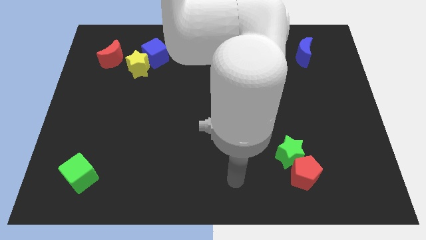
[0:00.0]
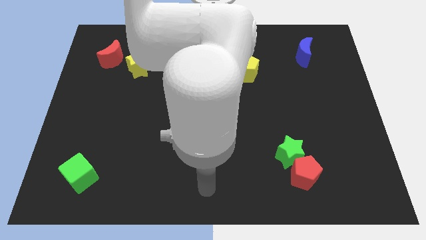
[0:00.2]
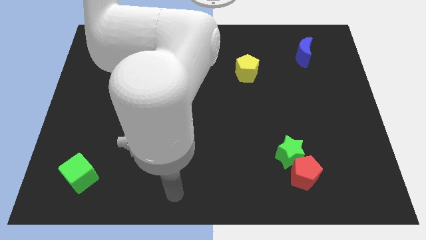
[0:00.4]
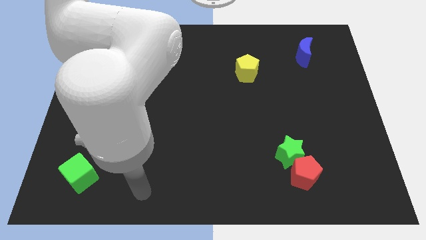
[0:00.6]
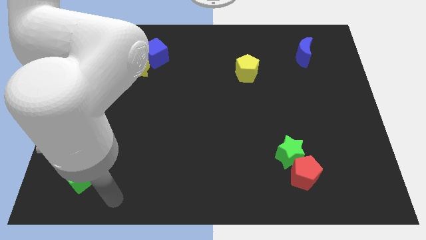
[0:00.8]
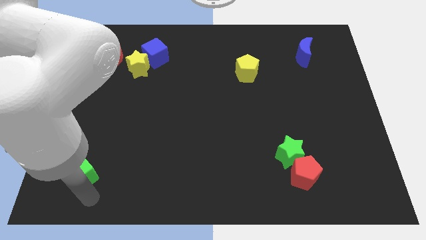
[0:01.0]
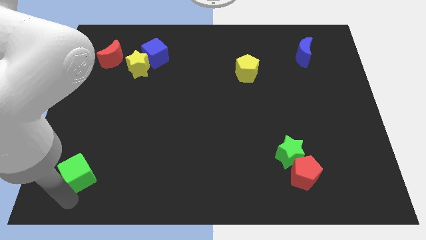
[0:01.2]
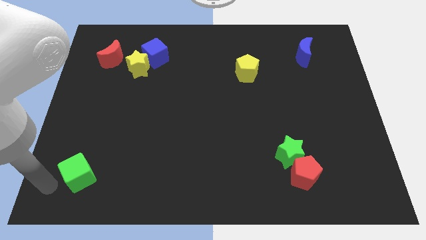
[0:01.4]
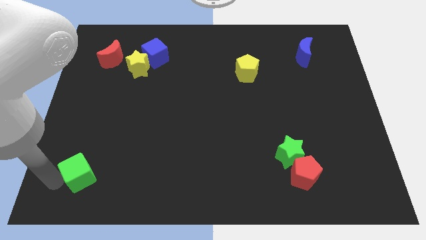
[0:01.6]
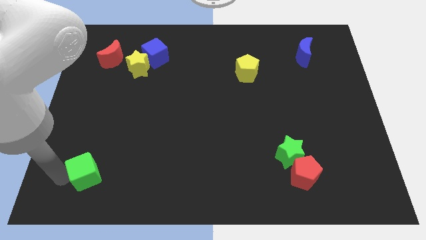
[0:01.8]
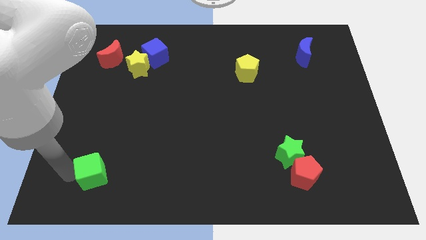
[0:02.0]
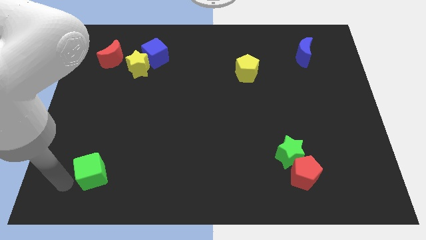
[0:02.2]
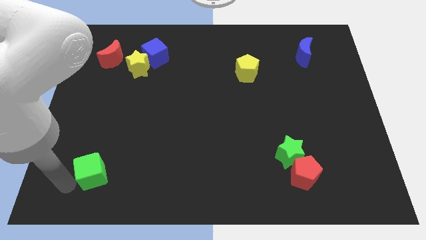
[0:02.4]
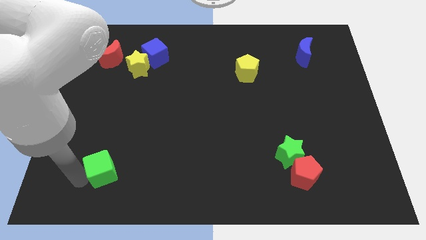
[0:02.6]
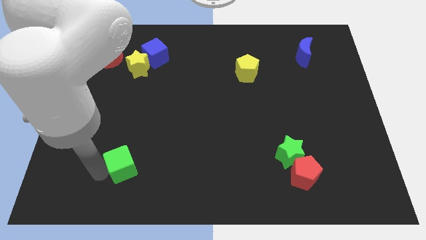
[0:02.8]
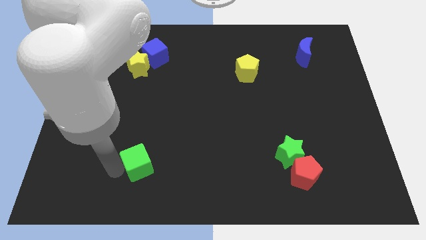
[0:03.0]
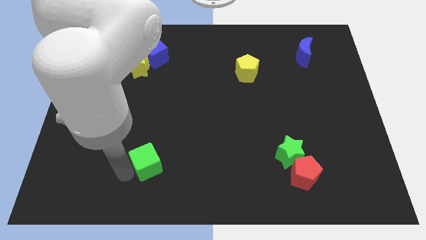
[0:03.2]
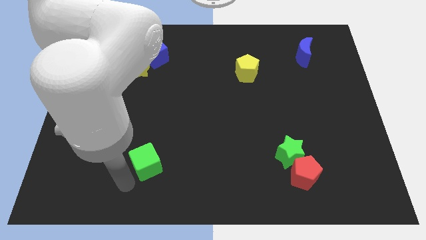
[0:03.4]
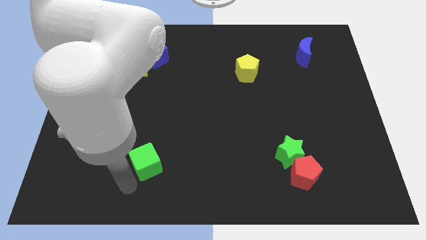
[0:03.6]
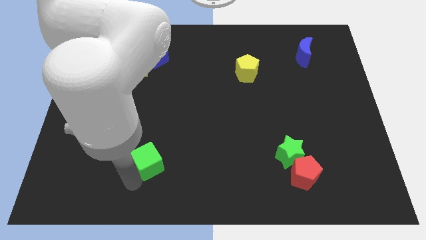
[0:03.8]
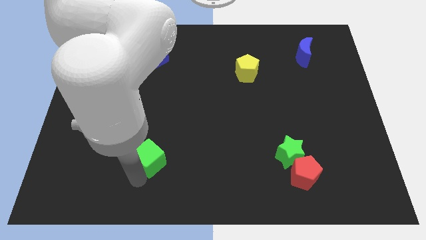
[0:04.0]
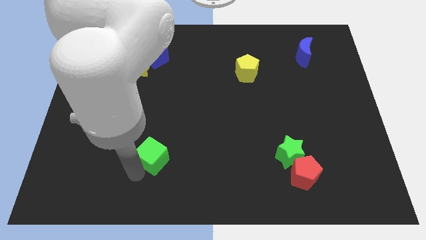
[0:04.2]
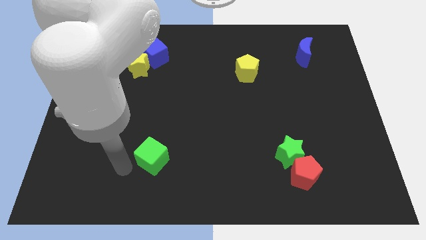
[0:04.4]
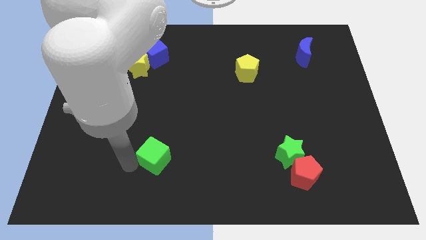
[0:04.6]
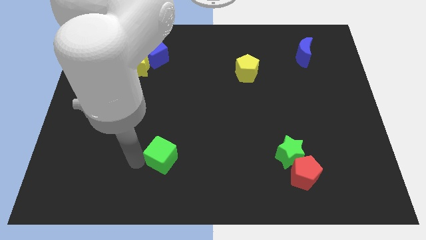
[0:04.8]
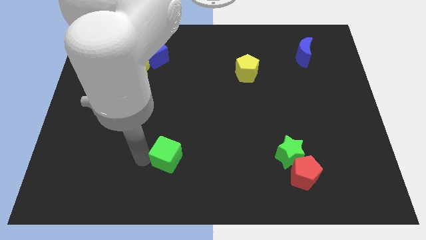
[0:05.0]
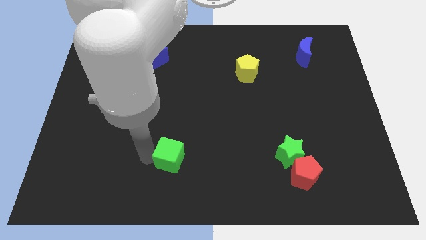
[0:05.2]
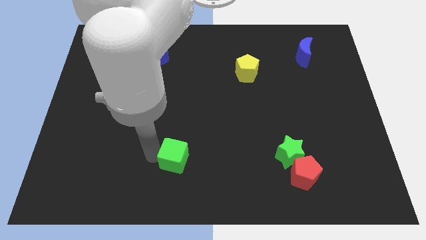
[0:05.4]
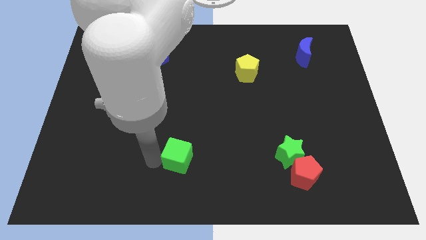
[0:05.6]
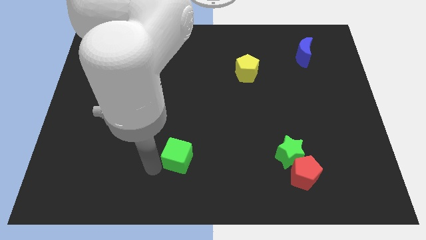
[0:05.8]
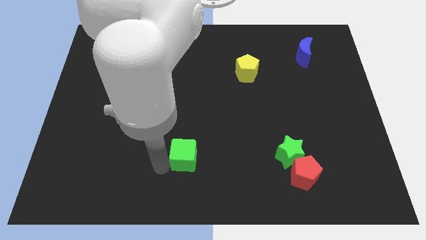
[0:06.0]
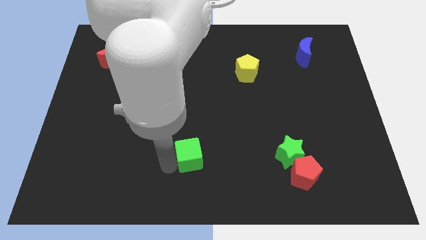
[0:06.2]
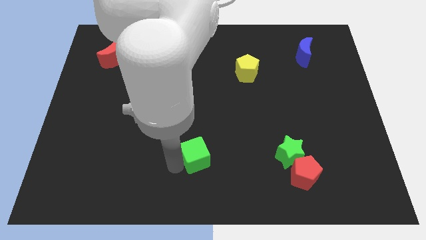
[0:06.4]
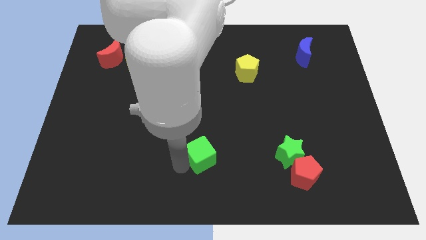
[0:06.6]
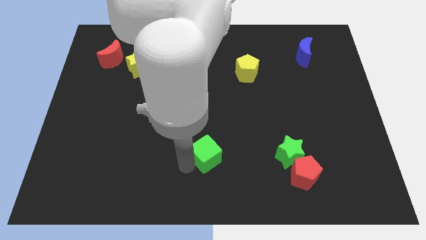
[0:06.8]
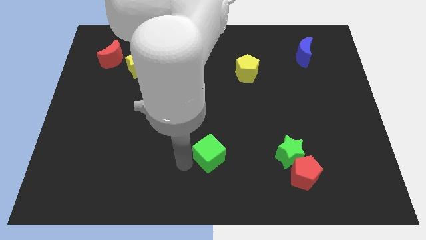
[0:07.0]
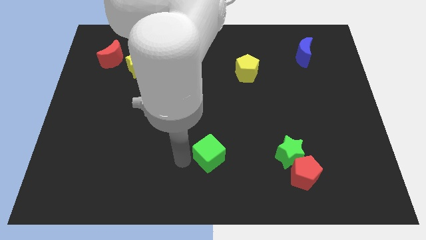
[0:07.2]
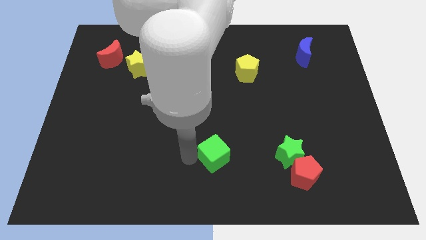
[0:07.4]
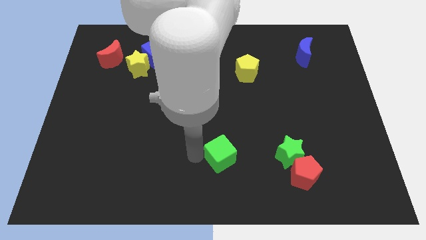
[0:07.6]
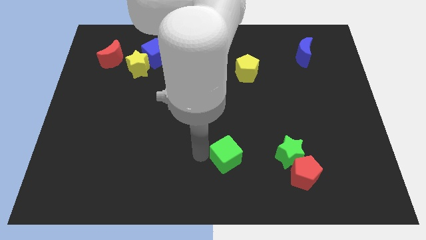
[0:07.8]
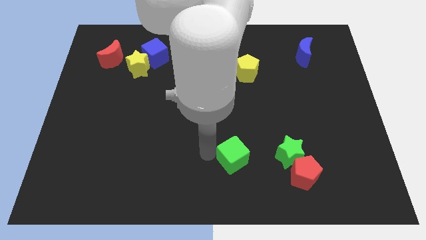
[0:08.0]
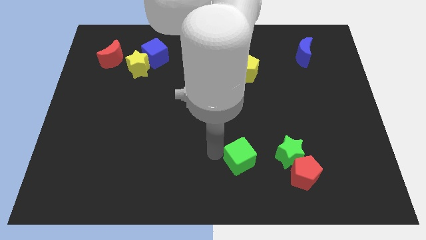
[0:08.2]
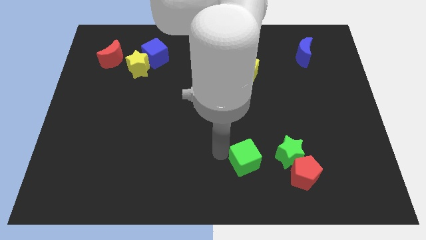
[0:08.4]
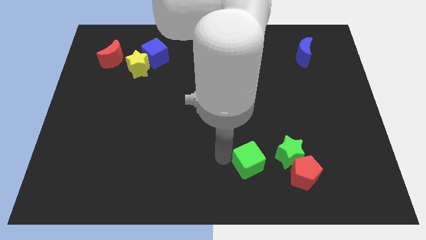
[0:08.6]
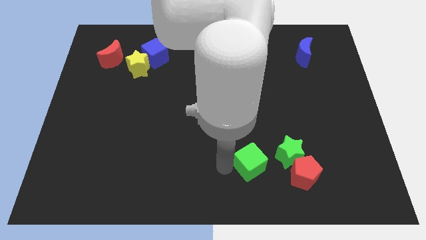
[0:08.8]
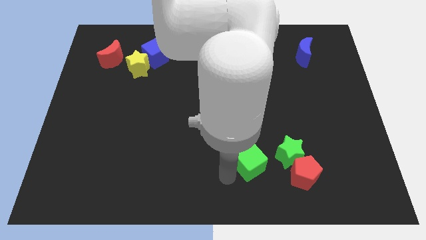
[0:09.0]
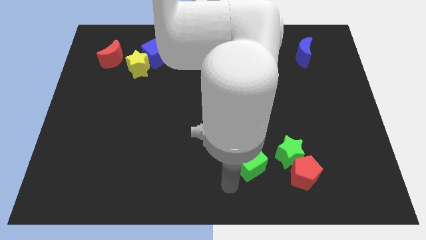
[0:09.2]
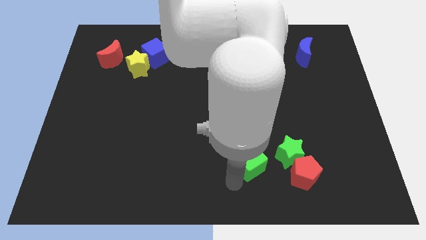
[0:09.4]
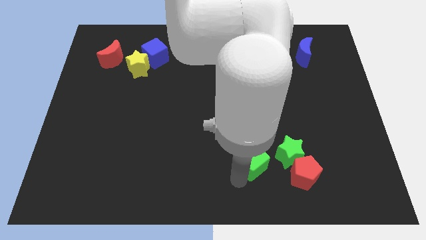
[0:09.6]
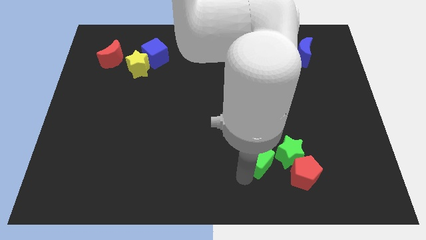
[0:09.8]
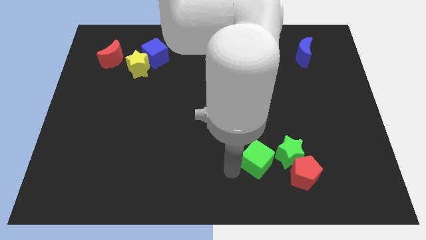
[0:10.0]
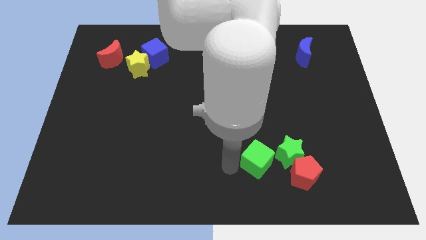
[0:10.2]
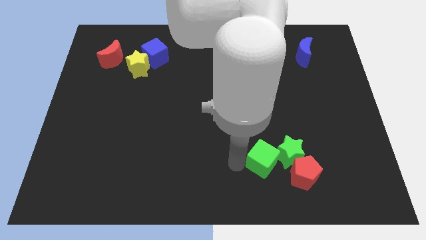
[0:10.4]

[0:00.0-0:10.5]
move the green cube next to the green star
